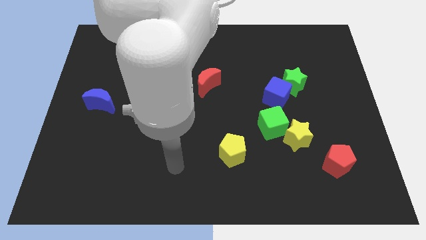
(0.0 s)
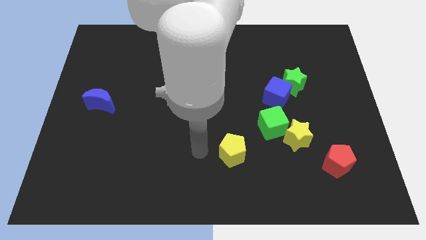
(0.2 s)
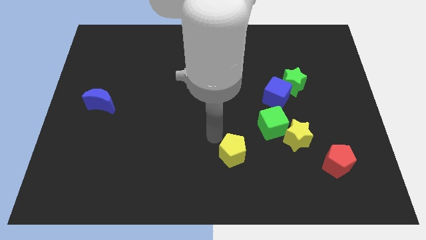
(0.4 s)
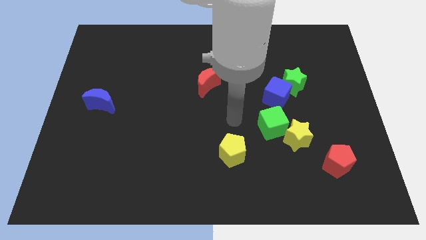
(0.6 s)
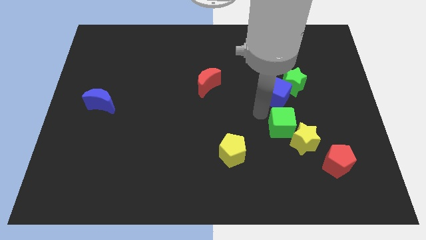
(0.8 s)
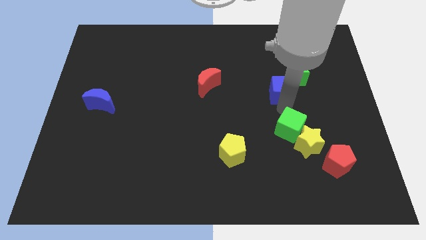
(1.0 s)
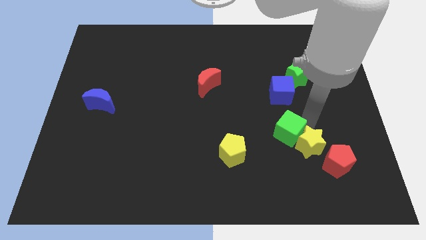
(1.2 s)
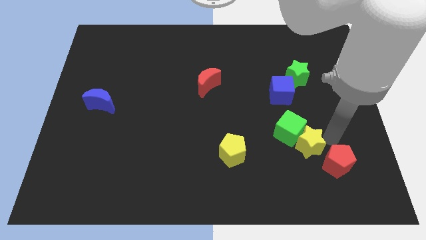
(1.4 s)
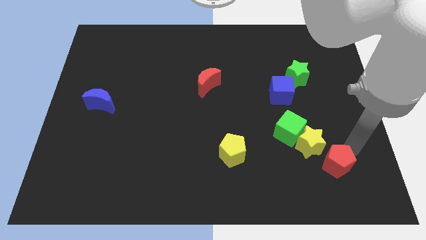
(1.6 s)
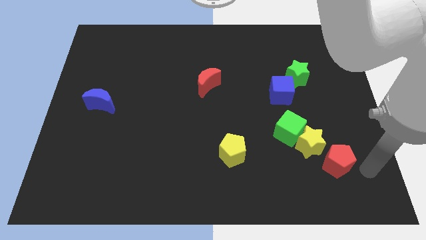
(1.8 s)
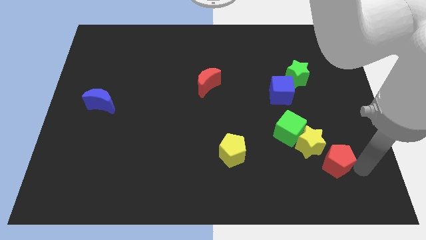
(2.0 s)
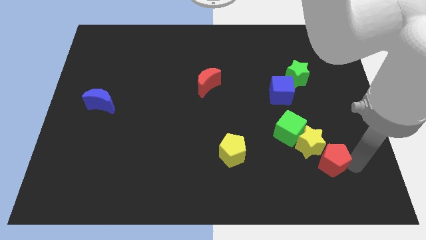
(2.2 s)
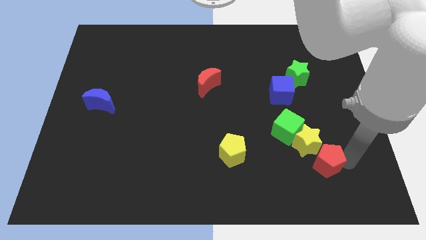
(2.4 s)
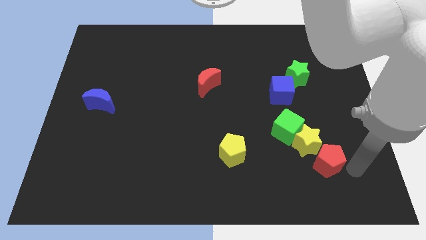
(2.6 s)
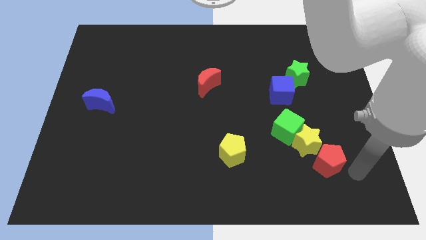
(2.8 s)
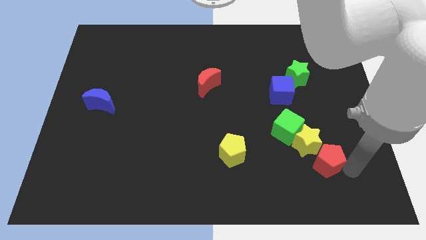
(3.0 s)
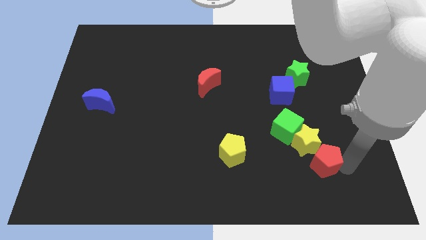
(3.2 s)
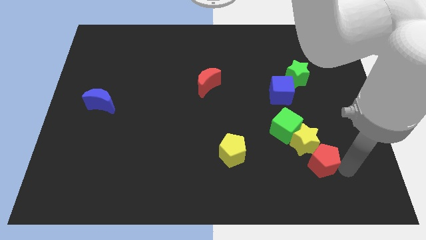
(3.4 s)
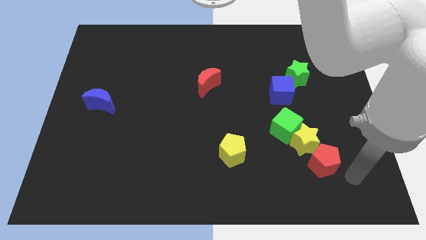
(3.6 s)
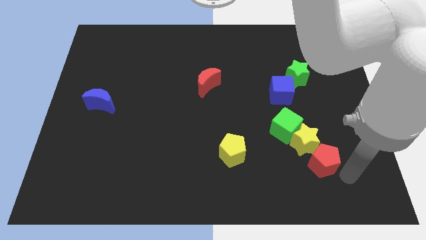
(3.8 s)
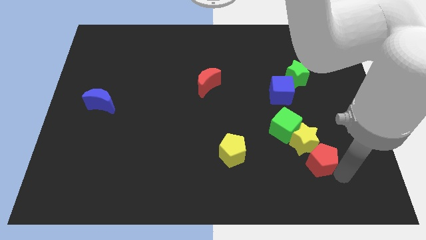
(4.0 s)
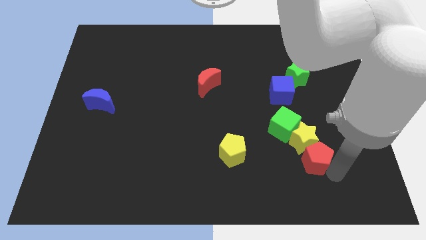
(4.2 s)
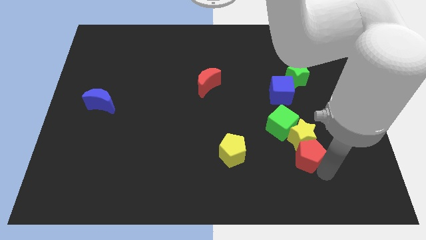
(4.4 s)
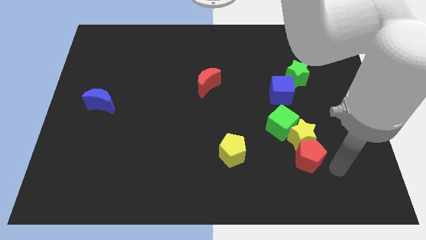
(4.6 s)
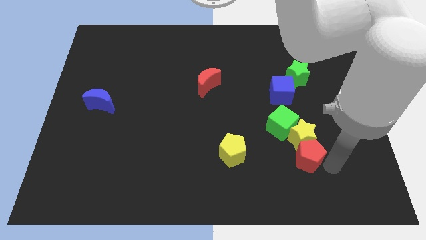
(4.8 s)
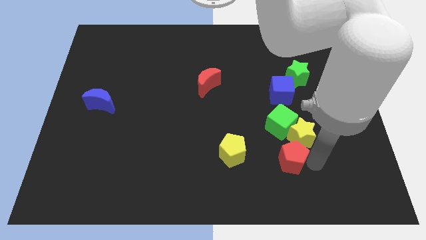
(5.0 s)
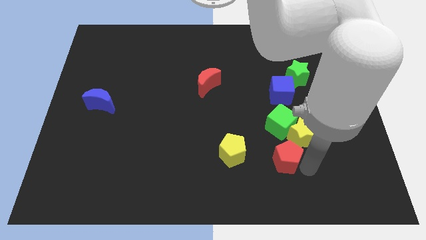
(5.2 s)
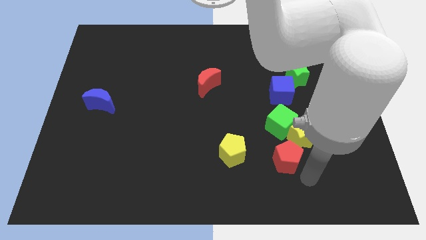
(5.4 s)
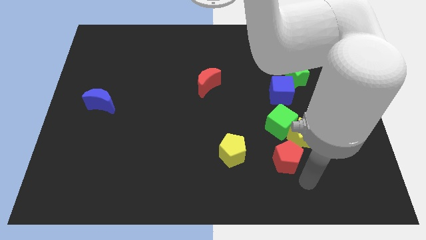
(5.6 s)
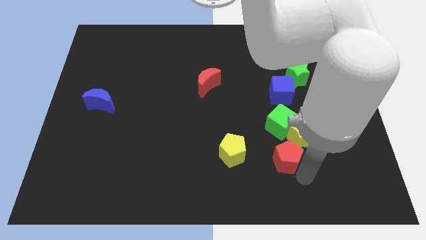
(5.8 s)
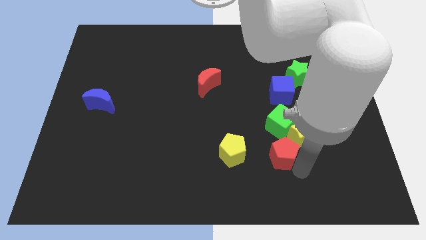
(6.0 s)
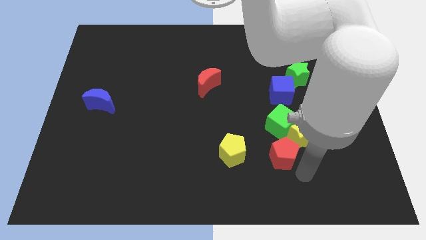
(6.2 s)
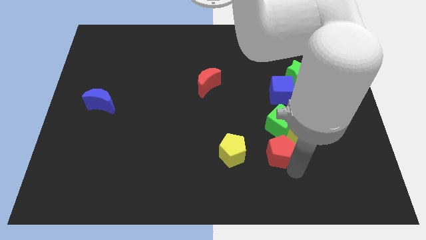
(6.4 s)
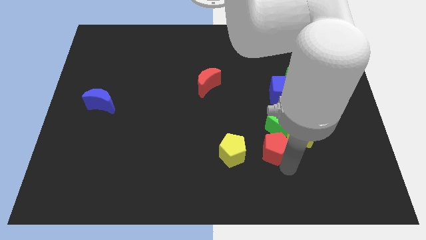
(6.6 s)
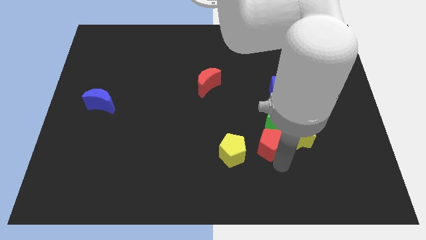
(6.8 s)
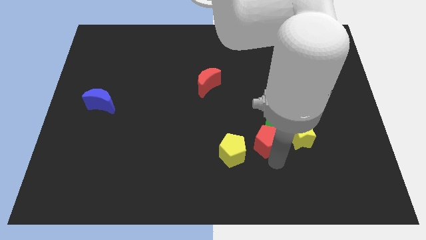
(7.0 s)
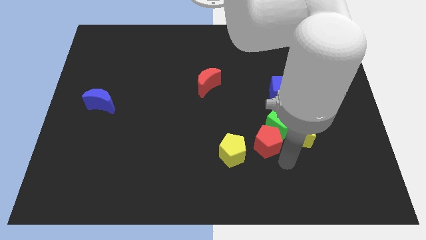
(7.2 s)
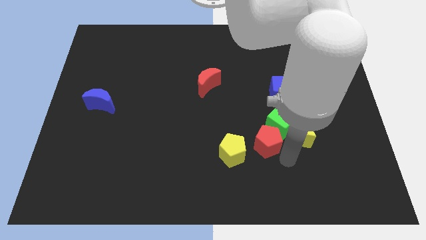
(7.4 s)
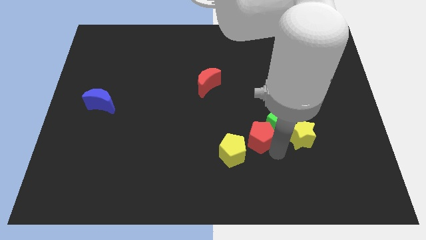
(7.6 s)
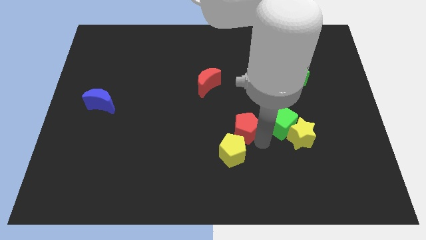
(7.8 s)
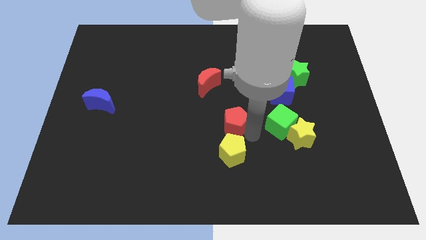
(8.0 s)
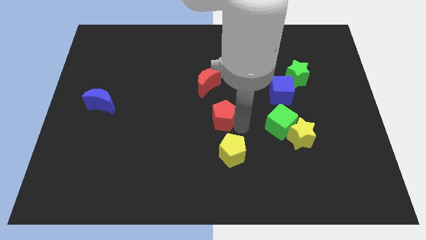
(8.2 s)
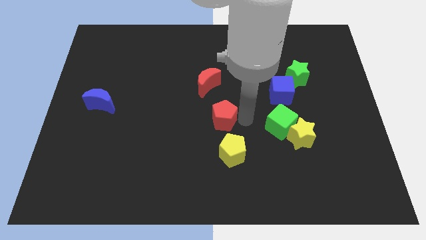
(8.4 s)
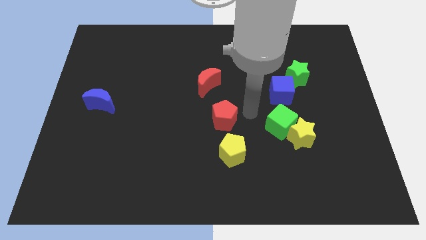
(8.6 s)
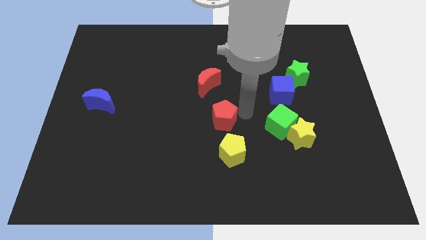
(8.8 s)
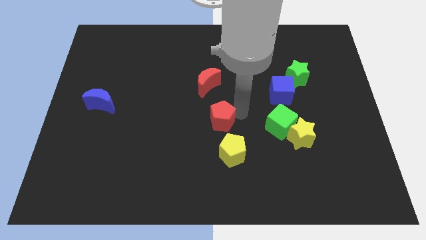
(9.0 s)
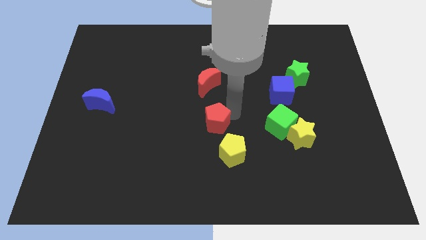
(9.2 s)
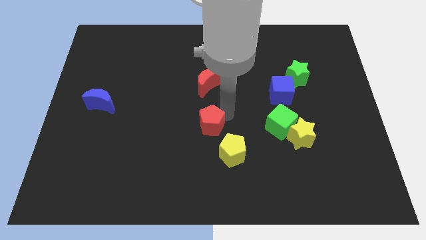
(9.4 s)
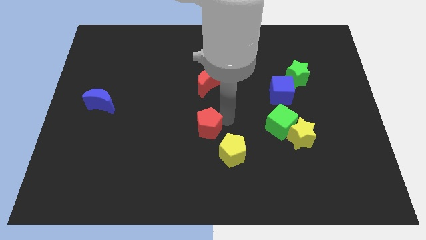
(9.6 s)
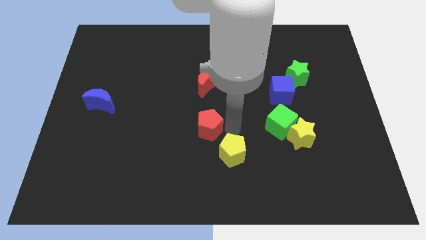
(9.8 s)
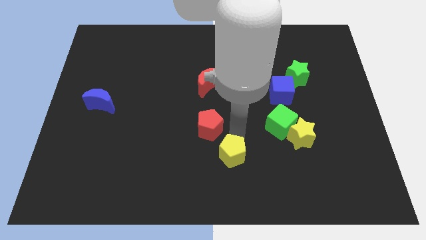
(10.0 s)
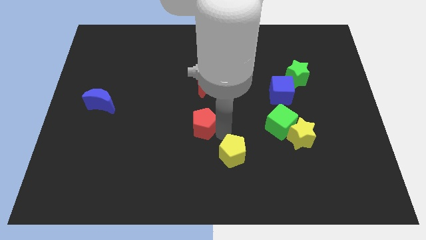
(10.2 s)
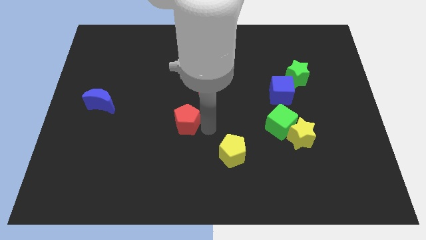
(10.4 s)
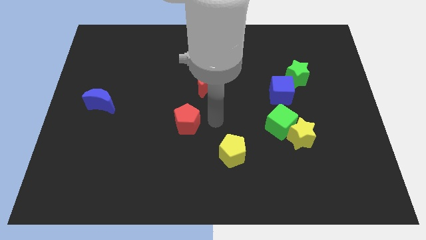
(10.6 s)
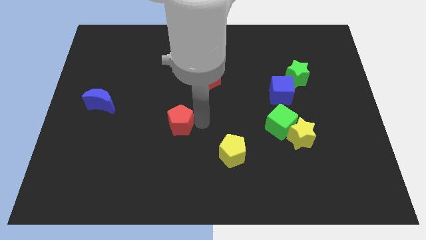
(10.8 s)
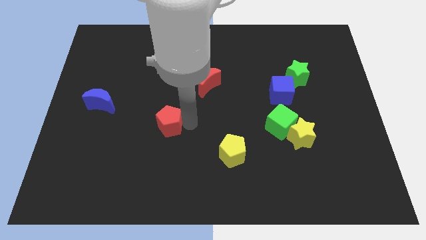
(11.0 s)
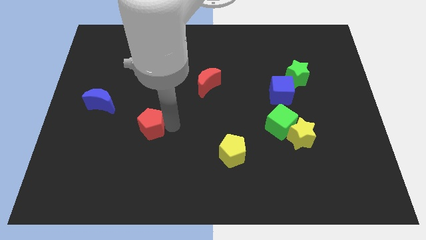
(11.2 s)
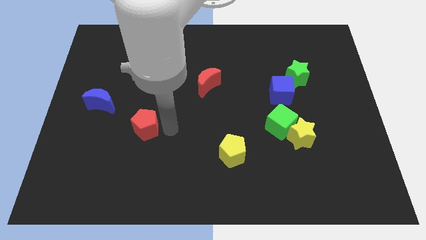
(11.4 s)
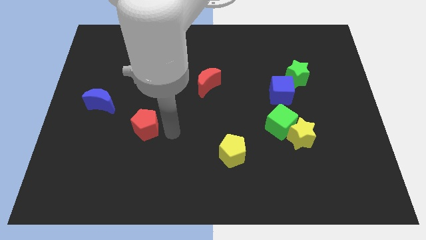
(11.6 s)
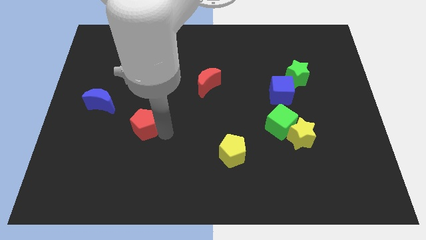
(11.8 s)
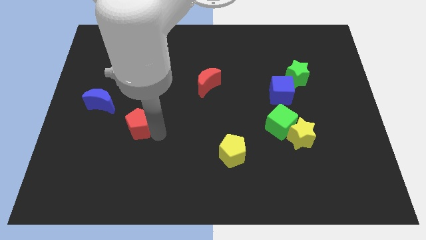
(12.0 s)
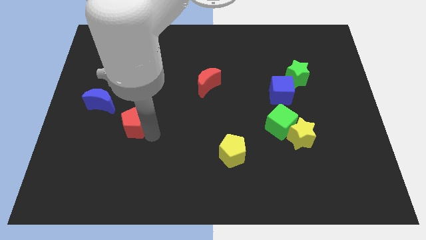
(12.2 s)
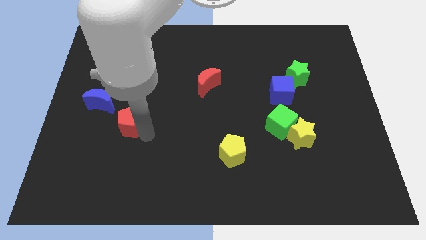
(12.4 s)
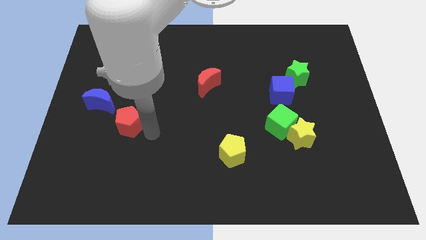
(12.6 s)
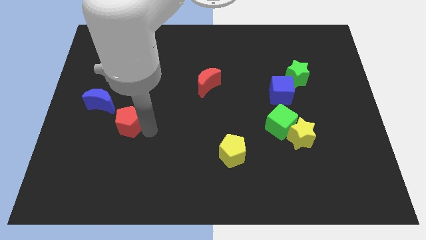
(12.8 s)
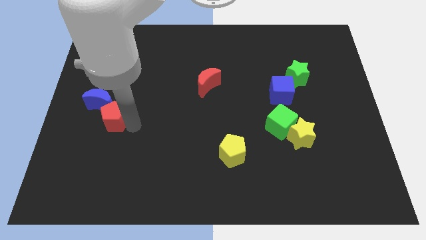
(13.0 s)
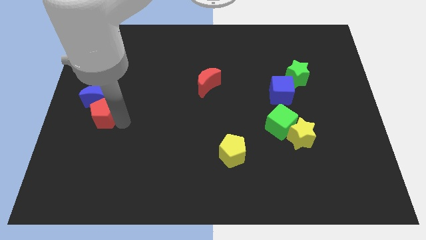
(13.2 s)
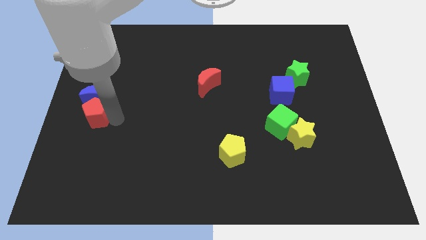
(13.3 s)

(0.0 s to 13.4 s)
push the red pentagon to the left side
